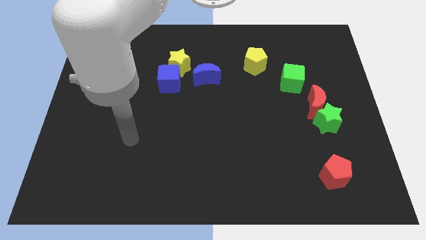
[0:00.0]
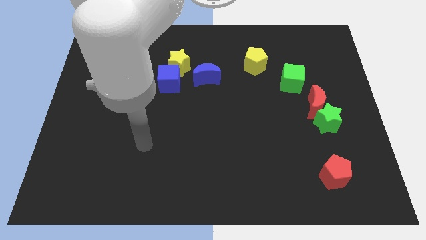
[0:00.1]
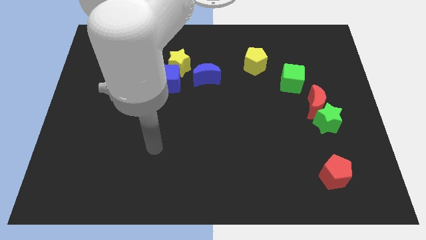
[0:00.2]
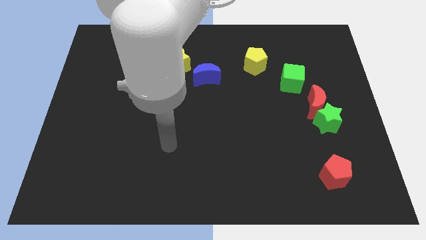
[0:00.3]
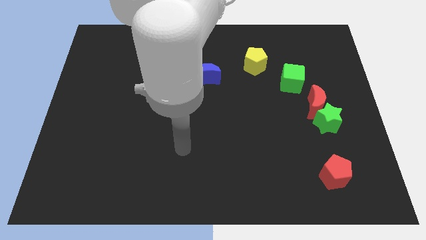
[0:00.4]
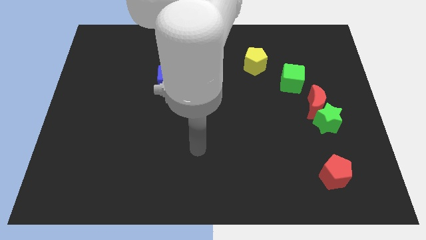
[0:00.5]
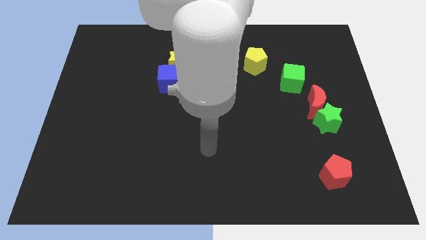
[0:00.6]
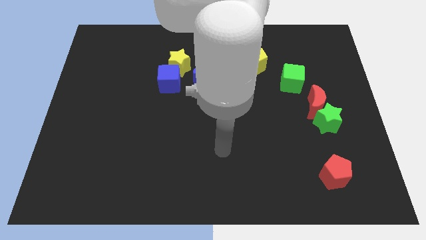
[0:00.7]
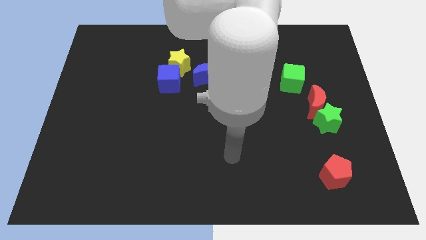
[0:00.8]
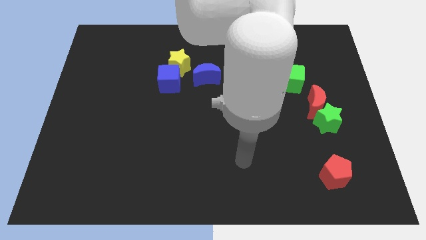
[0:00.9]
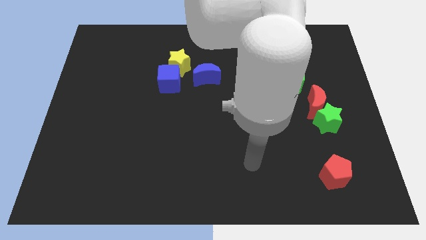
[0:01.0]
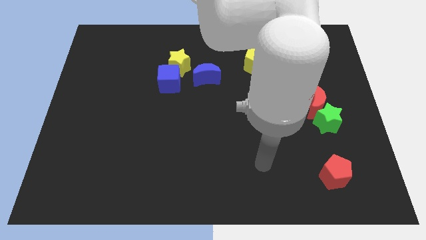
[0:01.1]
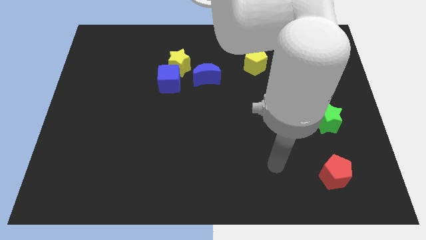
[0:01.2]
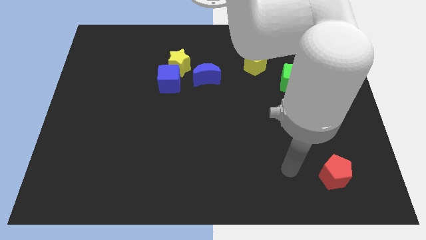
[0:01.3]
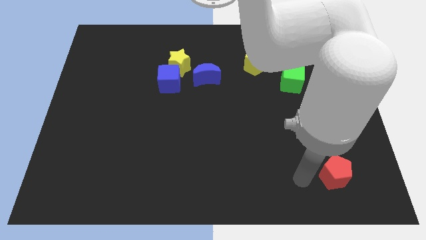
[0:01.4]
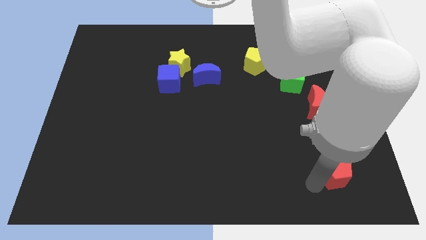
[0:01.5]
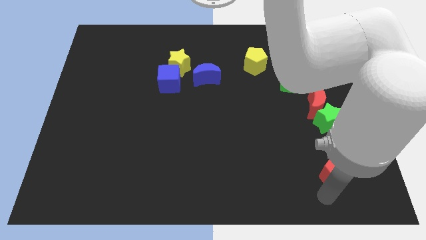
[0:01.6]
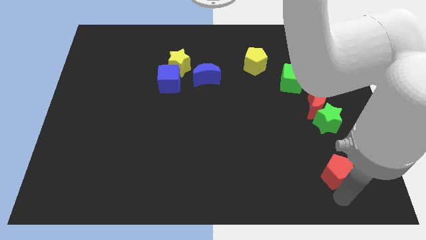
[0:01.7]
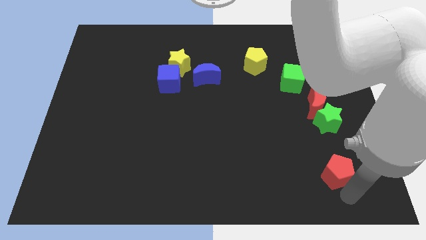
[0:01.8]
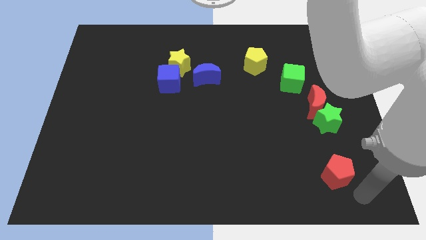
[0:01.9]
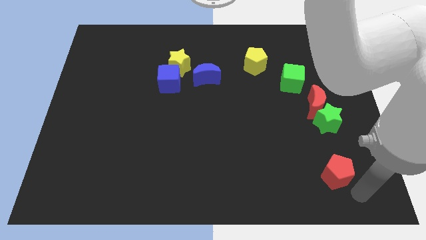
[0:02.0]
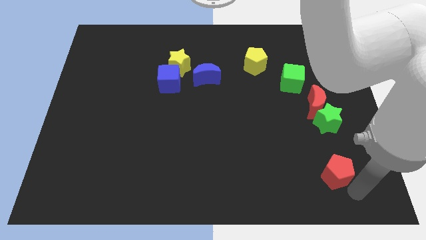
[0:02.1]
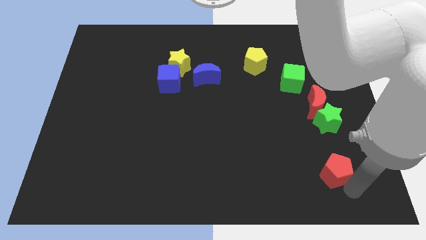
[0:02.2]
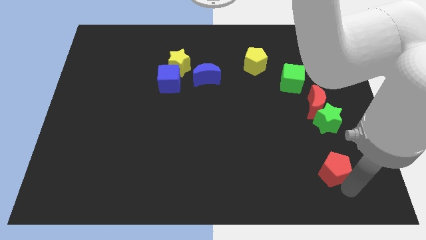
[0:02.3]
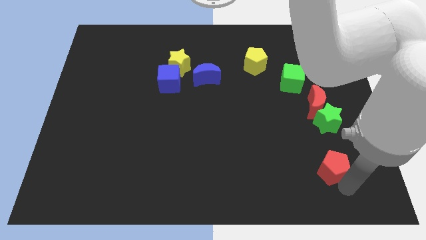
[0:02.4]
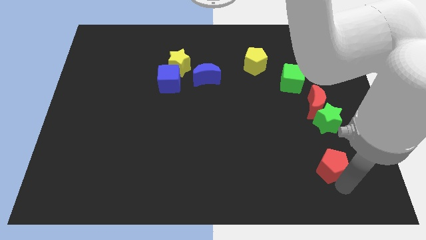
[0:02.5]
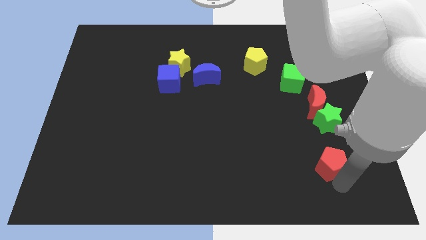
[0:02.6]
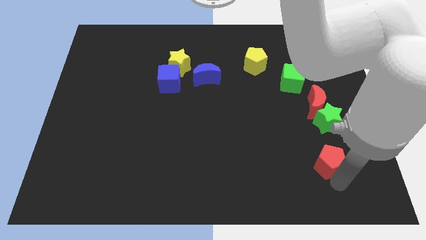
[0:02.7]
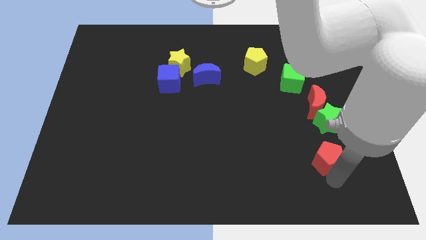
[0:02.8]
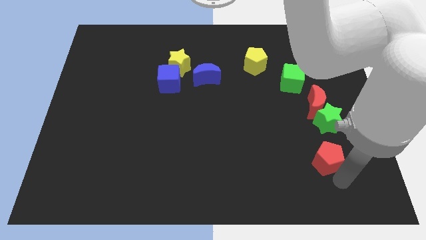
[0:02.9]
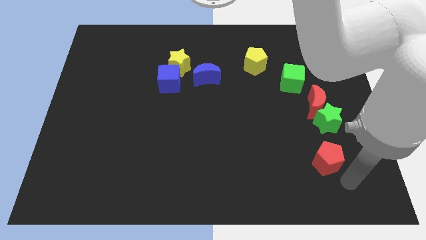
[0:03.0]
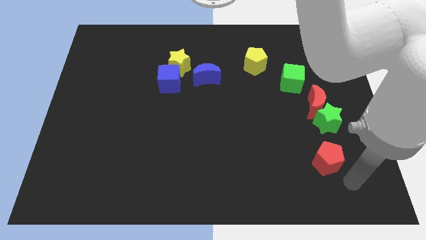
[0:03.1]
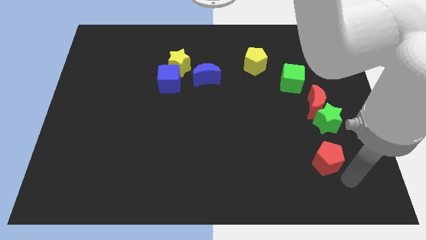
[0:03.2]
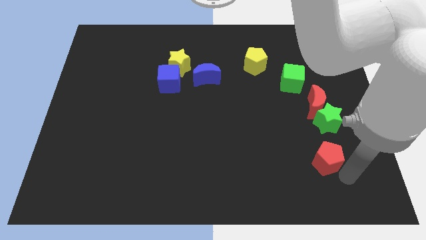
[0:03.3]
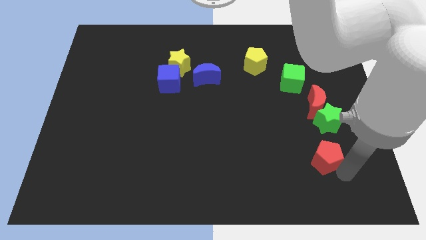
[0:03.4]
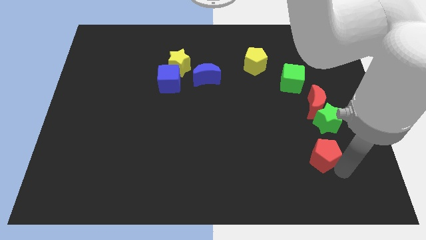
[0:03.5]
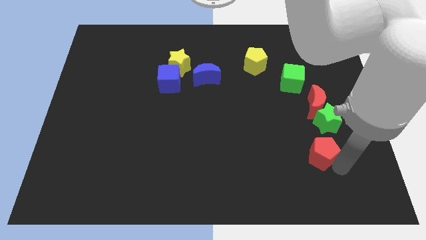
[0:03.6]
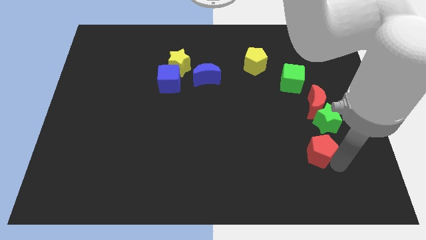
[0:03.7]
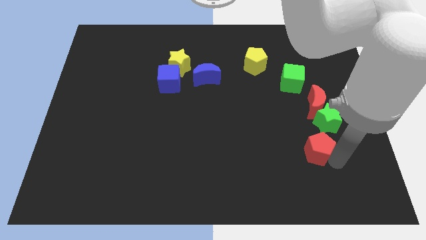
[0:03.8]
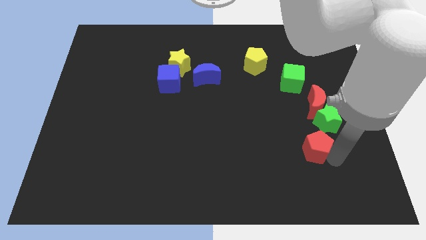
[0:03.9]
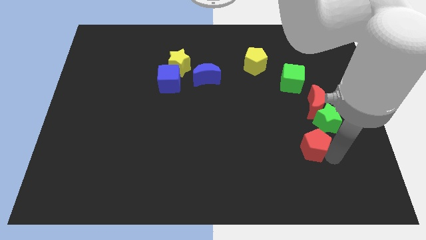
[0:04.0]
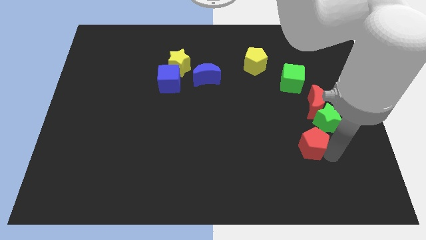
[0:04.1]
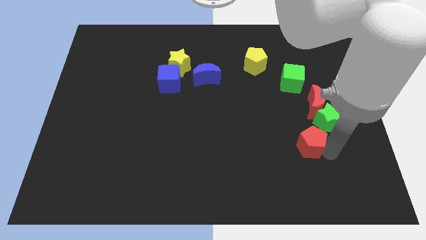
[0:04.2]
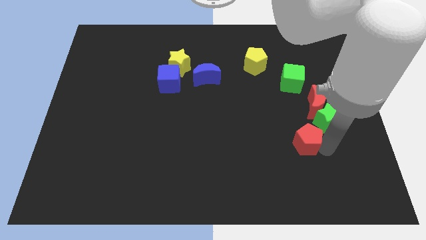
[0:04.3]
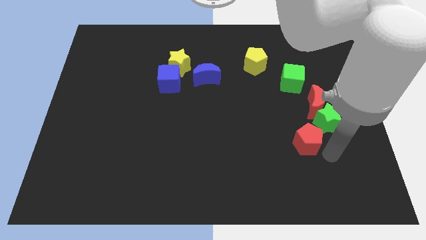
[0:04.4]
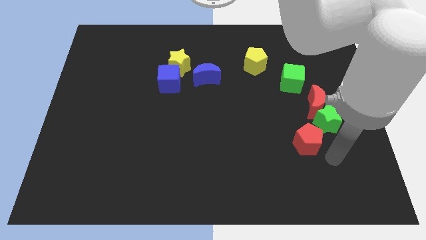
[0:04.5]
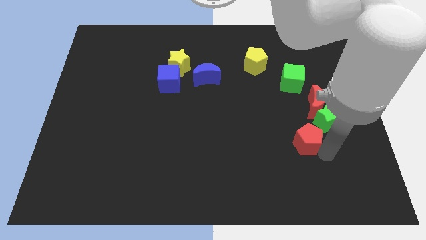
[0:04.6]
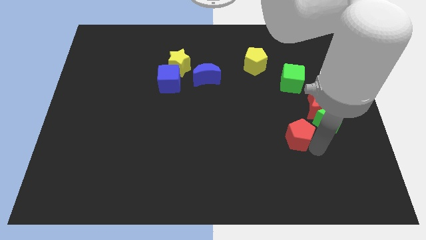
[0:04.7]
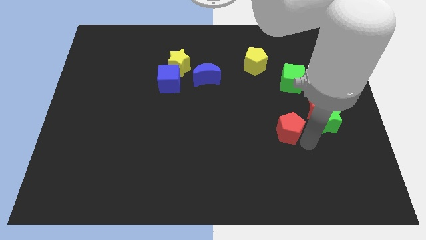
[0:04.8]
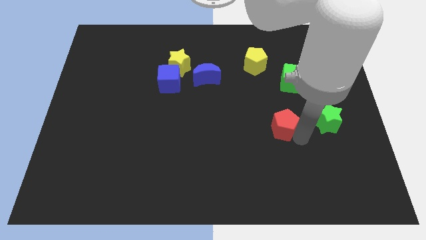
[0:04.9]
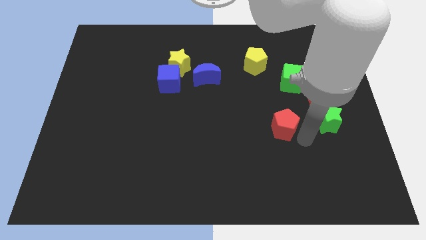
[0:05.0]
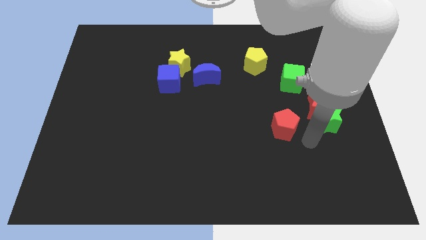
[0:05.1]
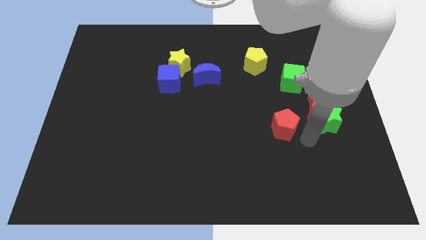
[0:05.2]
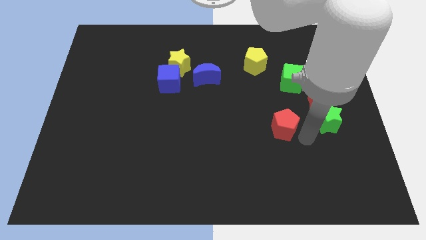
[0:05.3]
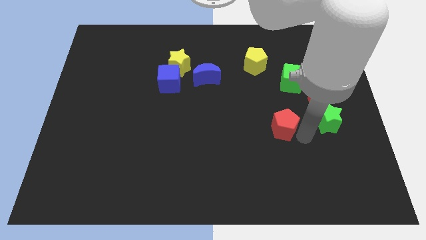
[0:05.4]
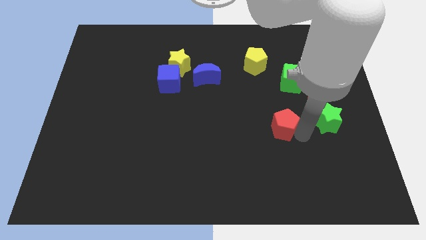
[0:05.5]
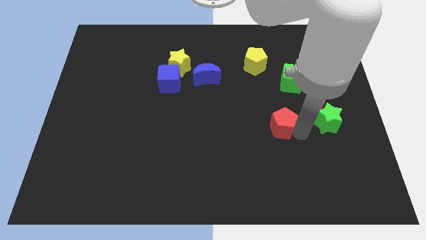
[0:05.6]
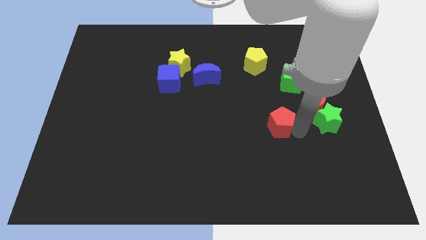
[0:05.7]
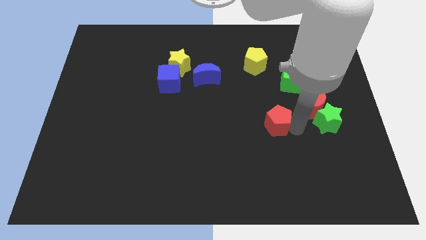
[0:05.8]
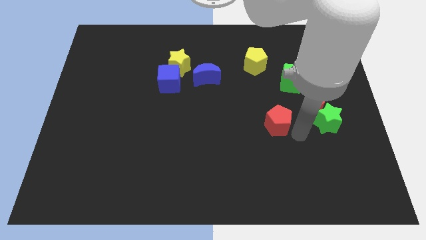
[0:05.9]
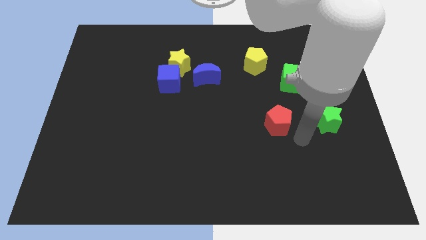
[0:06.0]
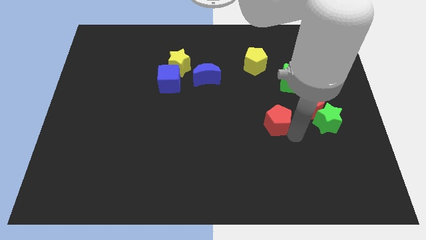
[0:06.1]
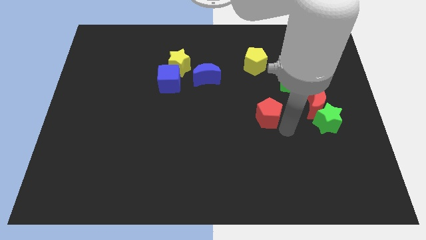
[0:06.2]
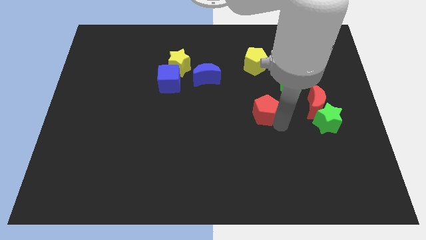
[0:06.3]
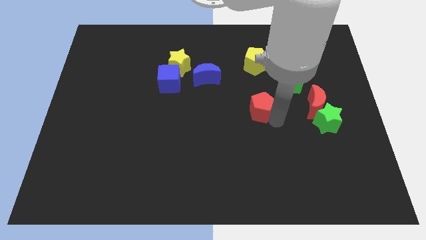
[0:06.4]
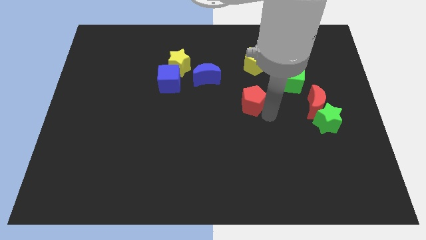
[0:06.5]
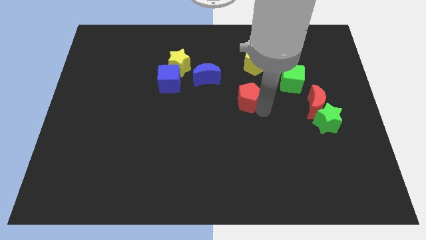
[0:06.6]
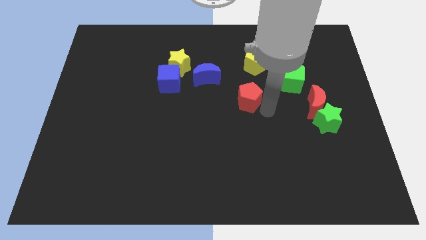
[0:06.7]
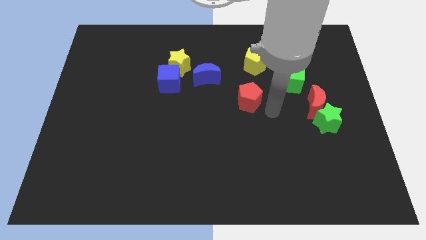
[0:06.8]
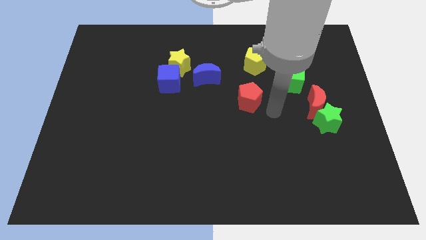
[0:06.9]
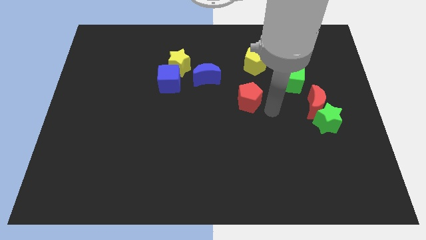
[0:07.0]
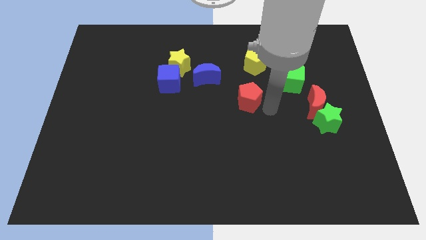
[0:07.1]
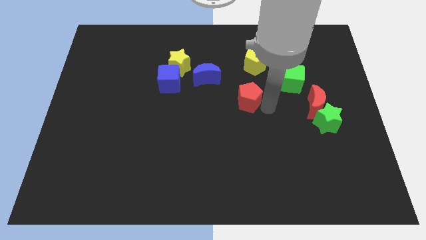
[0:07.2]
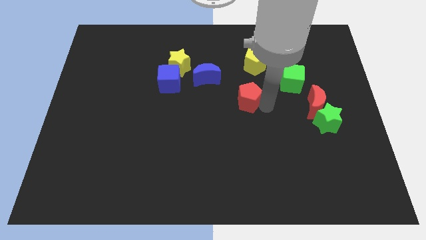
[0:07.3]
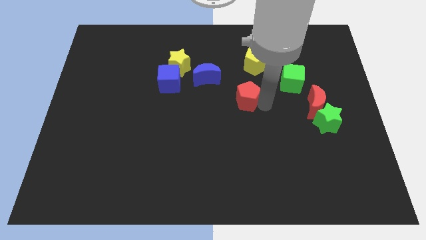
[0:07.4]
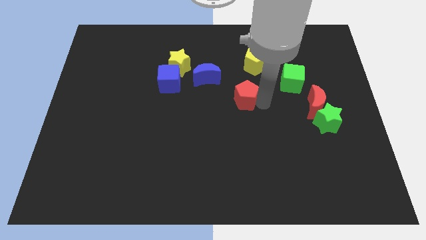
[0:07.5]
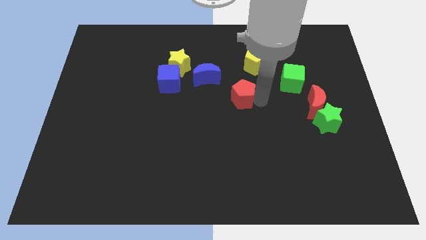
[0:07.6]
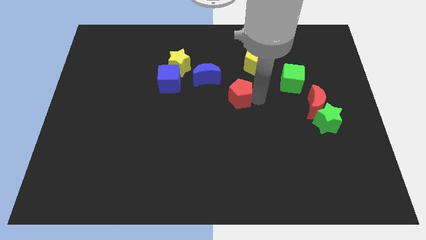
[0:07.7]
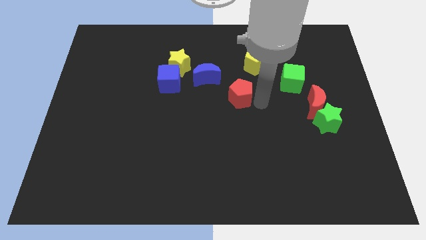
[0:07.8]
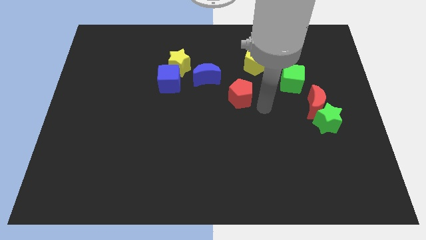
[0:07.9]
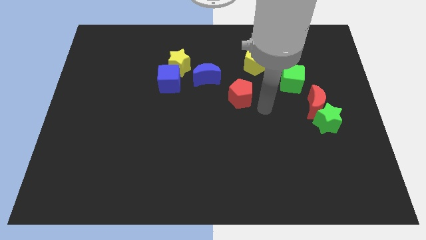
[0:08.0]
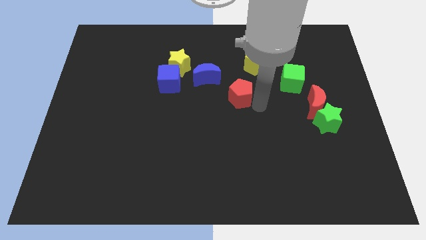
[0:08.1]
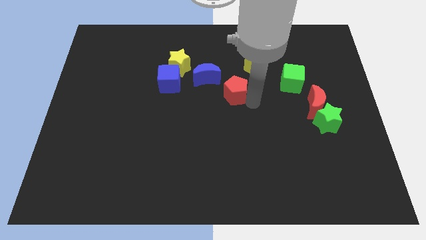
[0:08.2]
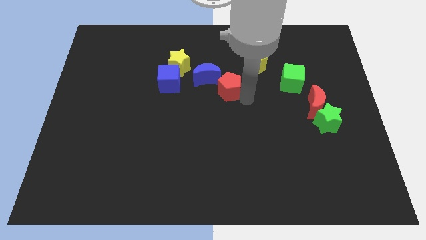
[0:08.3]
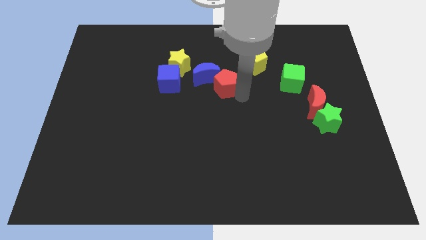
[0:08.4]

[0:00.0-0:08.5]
push the red pentagon towards the blue moon
